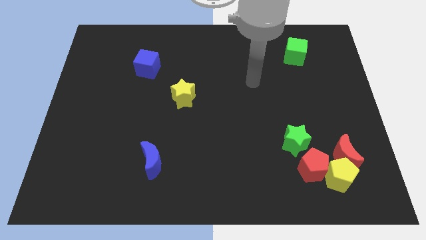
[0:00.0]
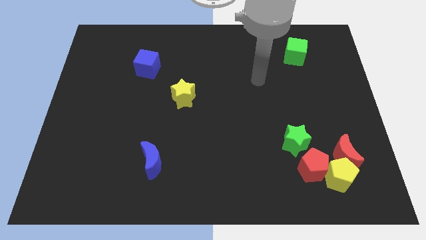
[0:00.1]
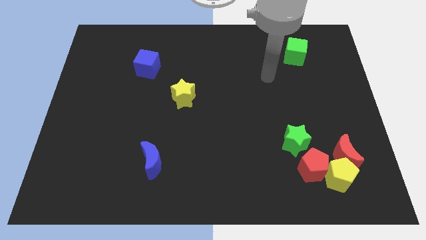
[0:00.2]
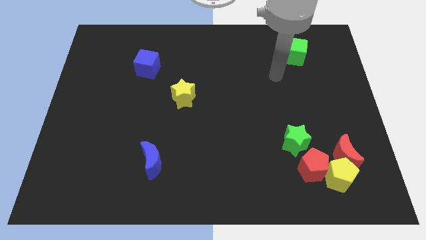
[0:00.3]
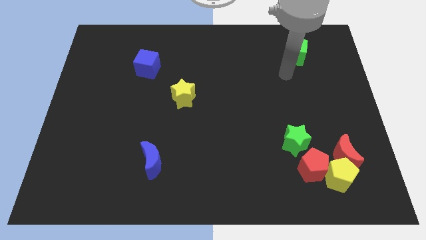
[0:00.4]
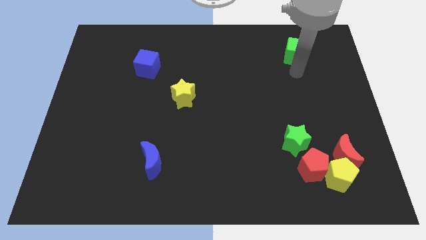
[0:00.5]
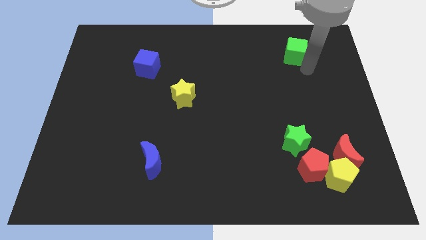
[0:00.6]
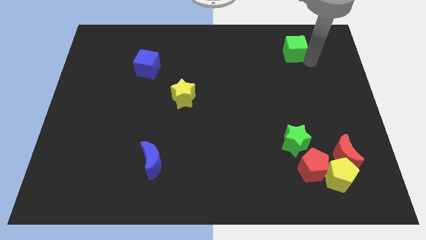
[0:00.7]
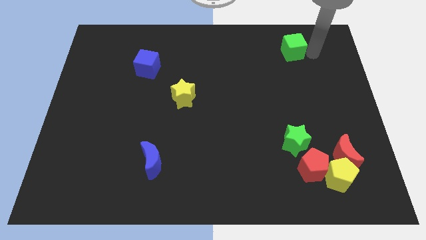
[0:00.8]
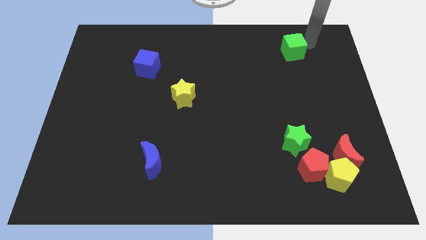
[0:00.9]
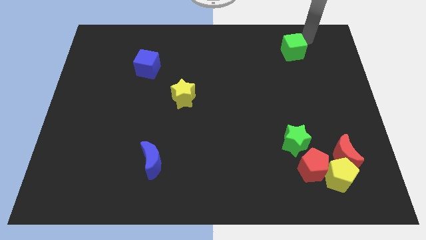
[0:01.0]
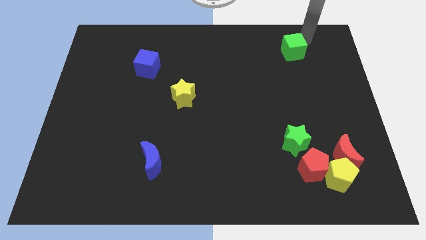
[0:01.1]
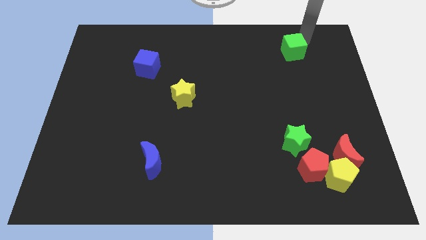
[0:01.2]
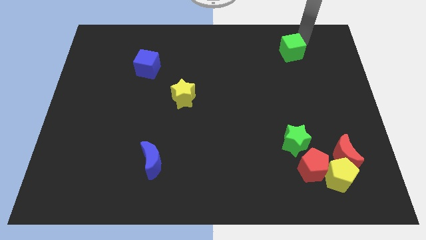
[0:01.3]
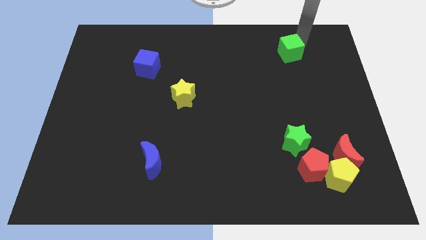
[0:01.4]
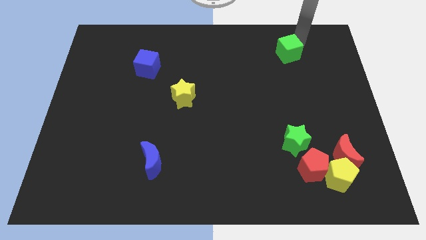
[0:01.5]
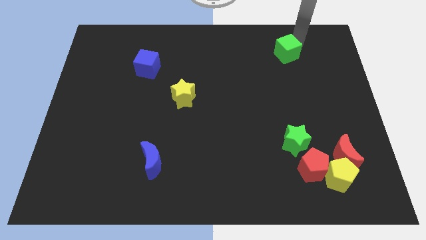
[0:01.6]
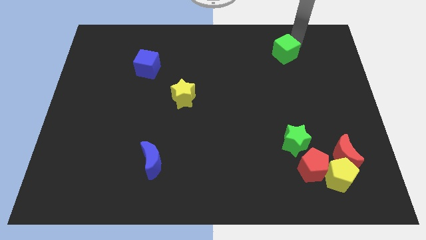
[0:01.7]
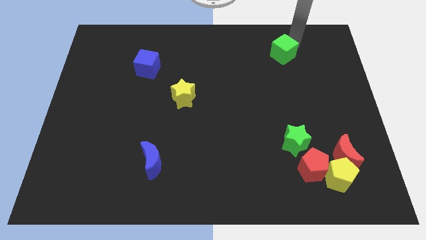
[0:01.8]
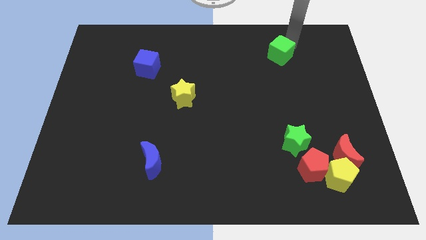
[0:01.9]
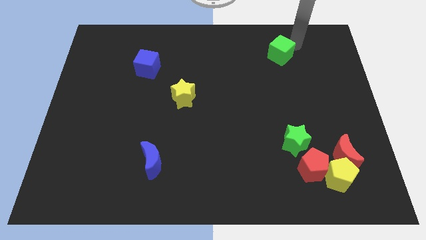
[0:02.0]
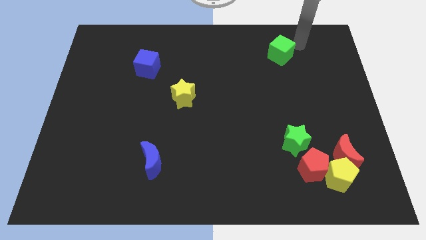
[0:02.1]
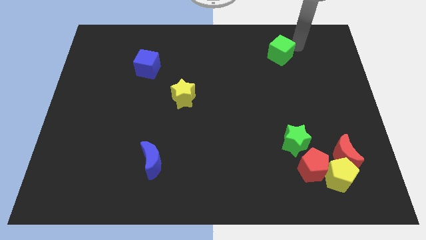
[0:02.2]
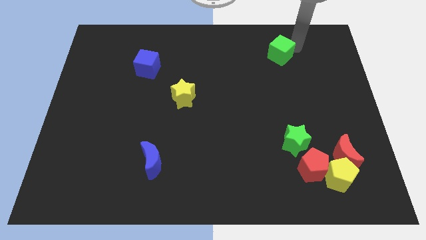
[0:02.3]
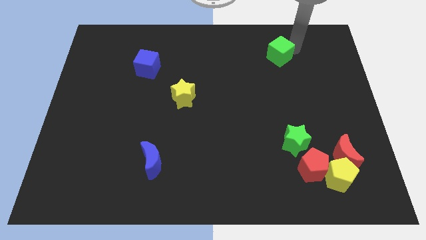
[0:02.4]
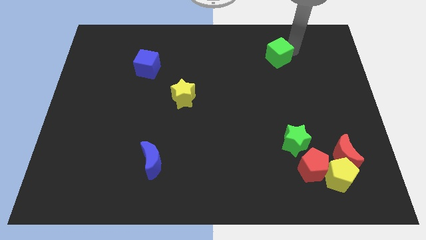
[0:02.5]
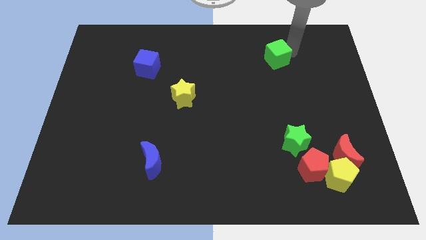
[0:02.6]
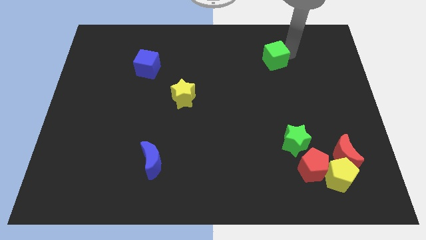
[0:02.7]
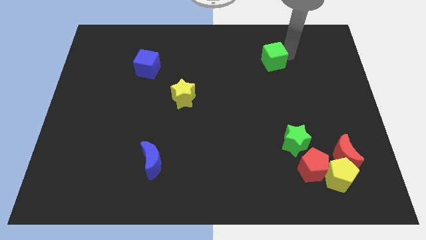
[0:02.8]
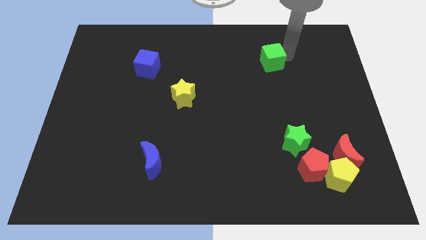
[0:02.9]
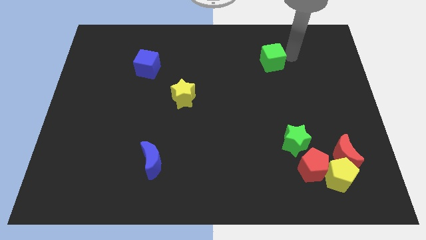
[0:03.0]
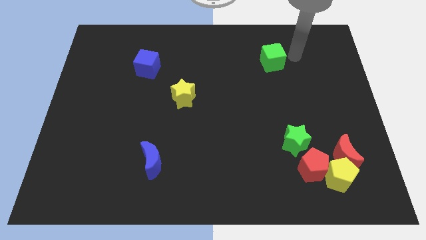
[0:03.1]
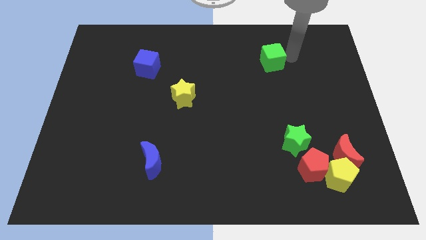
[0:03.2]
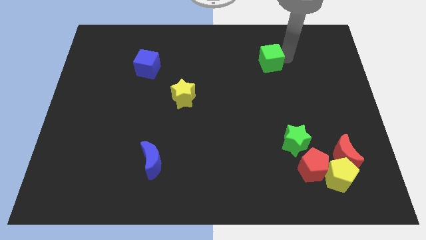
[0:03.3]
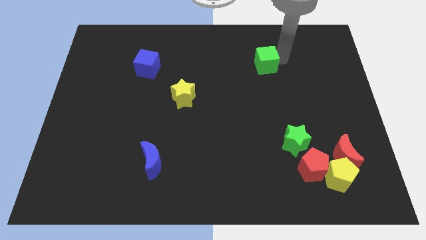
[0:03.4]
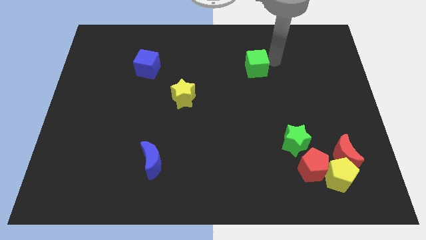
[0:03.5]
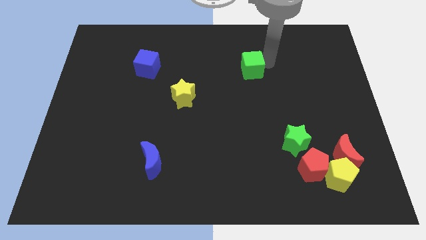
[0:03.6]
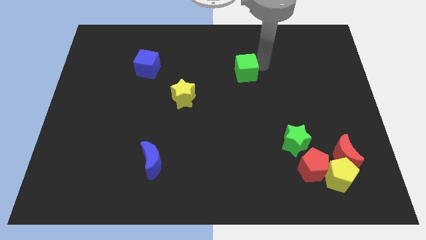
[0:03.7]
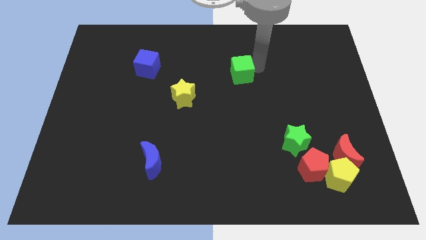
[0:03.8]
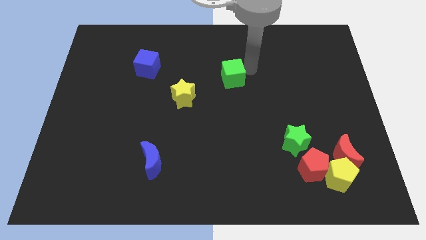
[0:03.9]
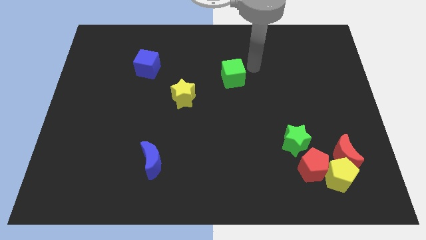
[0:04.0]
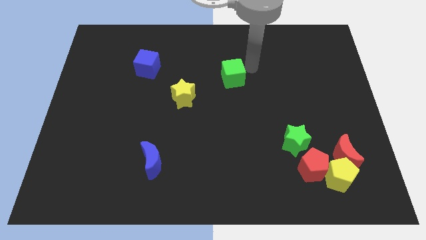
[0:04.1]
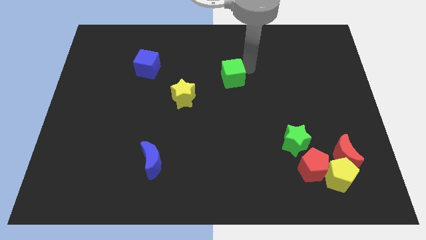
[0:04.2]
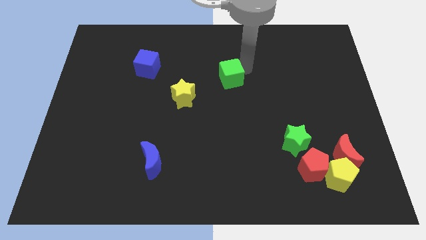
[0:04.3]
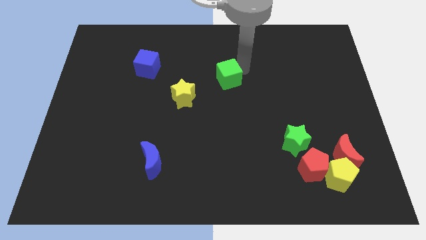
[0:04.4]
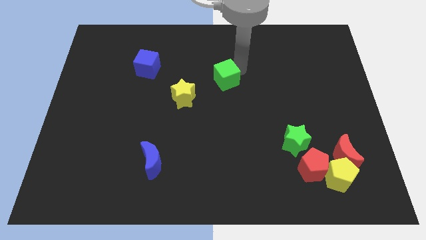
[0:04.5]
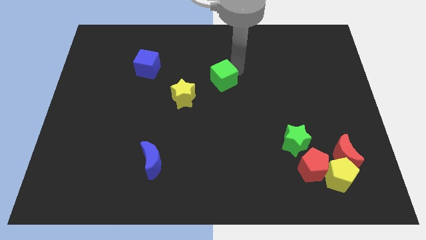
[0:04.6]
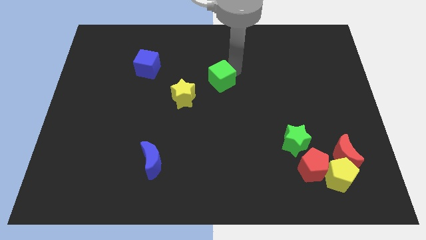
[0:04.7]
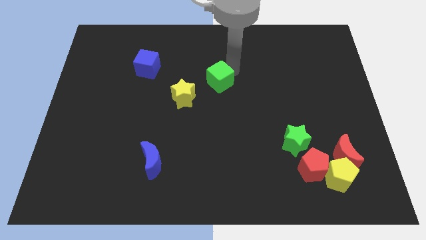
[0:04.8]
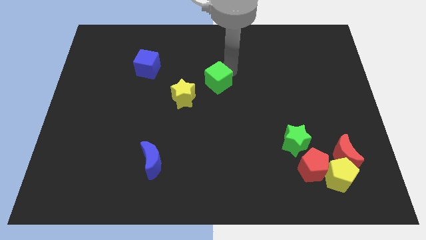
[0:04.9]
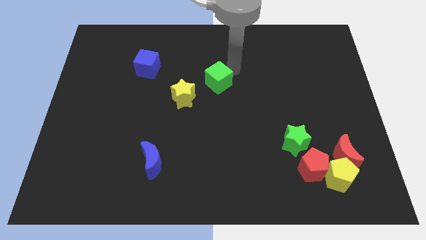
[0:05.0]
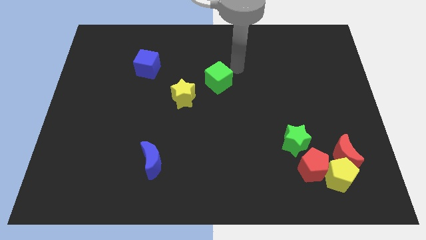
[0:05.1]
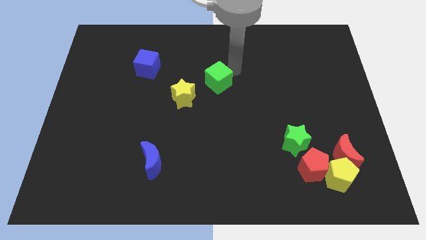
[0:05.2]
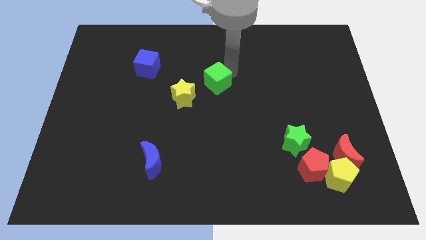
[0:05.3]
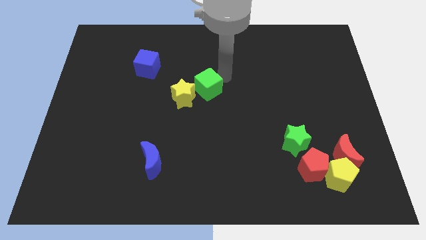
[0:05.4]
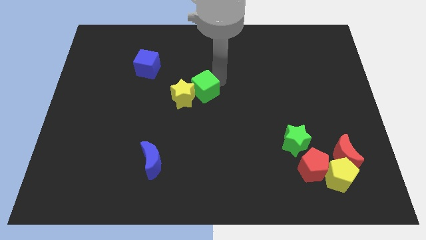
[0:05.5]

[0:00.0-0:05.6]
move the green cube towards the yellow star

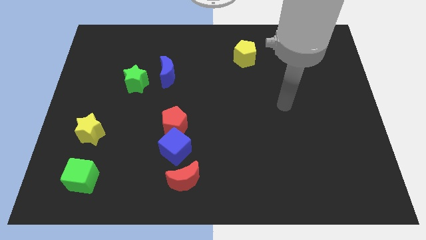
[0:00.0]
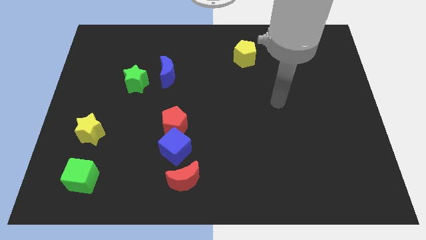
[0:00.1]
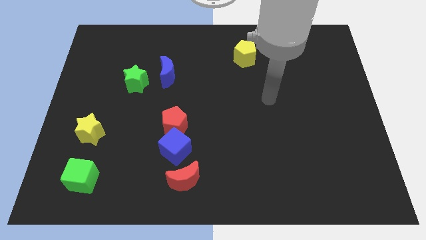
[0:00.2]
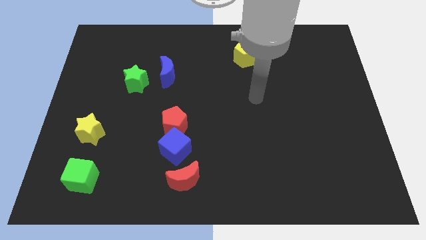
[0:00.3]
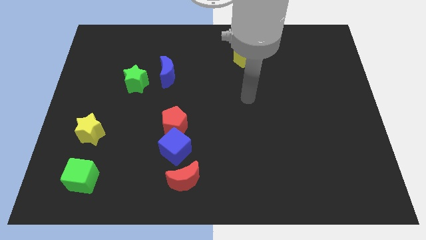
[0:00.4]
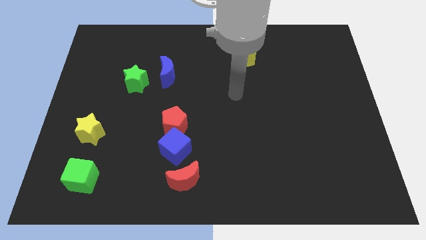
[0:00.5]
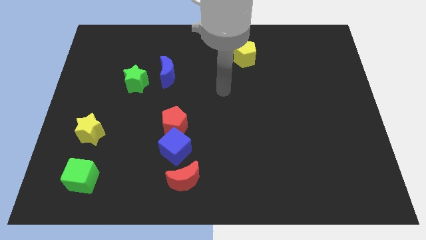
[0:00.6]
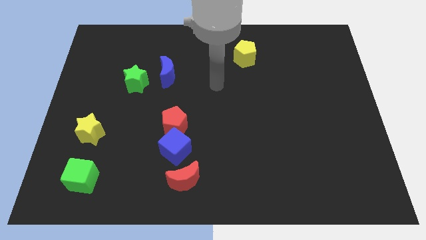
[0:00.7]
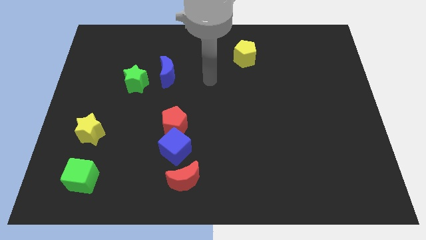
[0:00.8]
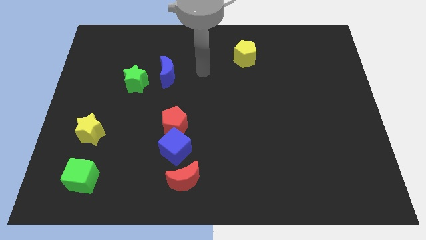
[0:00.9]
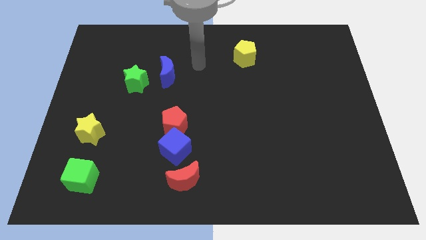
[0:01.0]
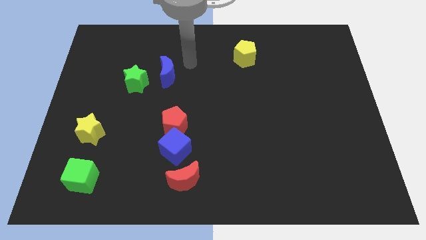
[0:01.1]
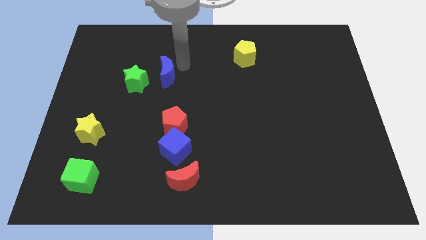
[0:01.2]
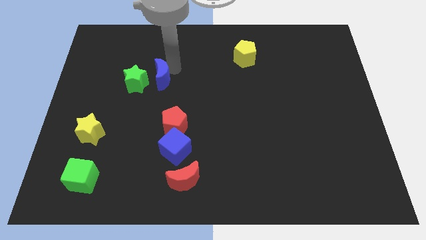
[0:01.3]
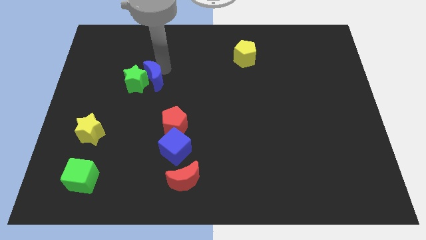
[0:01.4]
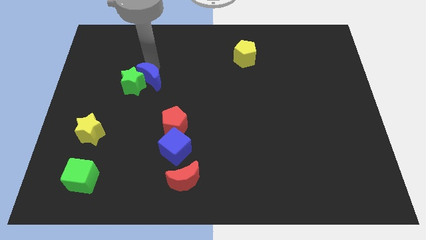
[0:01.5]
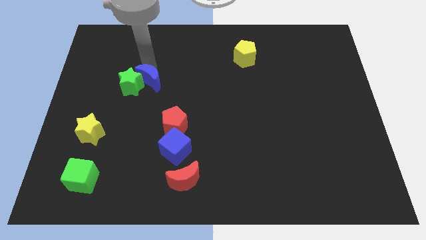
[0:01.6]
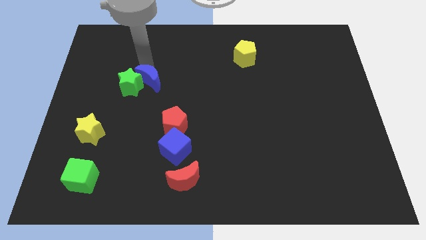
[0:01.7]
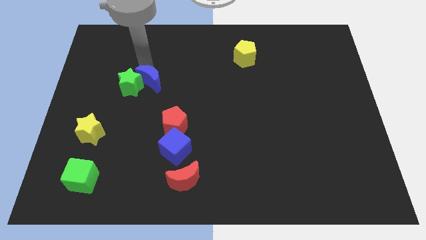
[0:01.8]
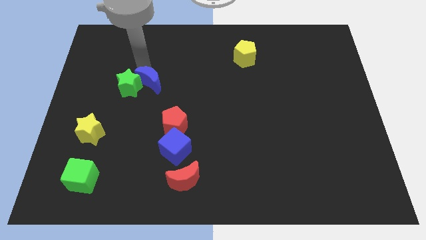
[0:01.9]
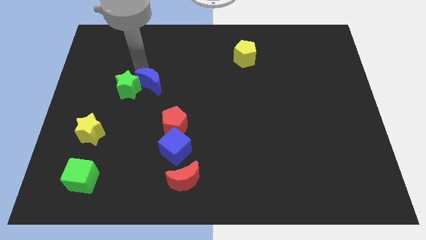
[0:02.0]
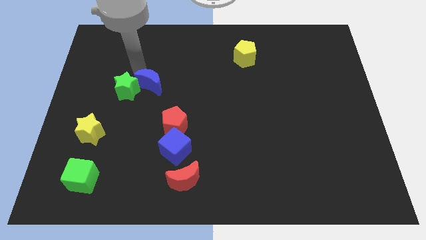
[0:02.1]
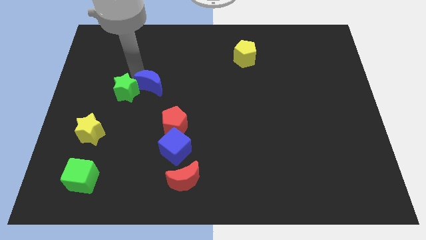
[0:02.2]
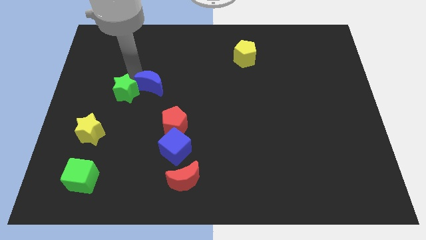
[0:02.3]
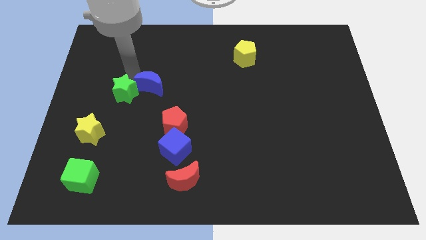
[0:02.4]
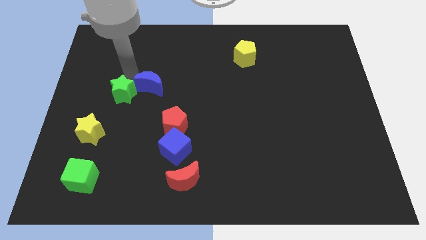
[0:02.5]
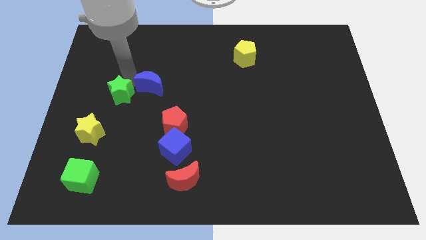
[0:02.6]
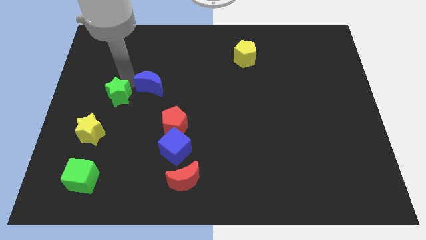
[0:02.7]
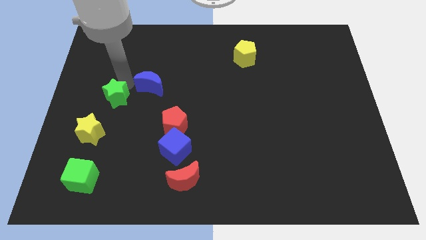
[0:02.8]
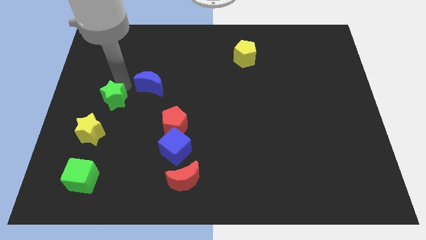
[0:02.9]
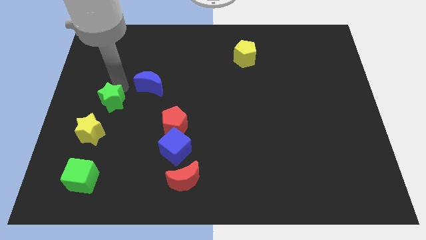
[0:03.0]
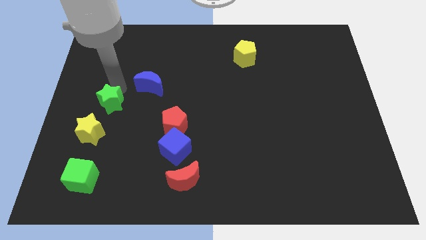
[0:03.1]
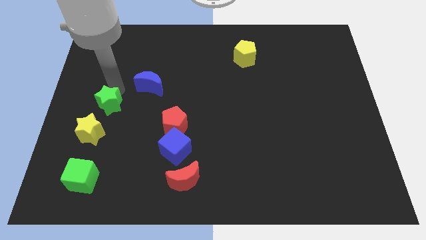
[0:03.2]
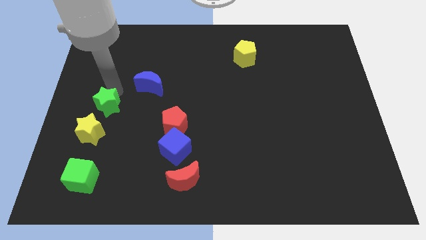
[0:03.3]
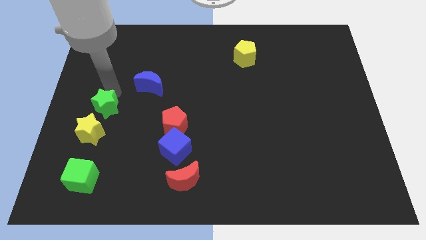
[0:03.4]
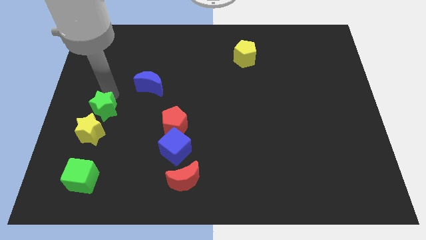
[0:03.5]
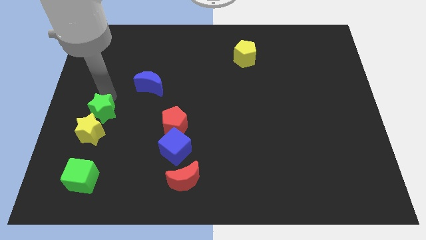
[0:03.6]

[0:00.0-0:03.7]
slide the green star close to the yellow star
